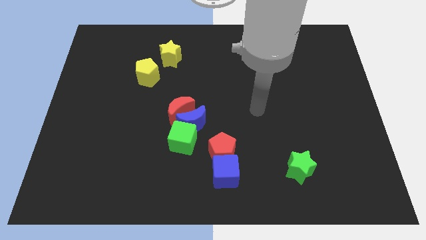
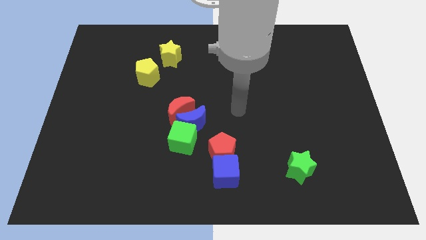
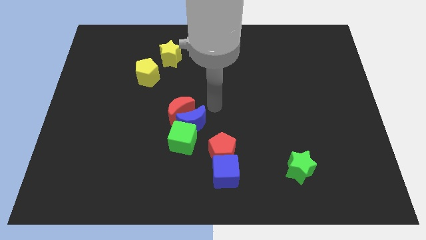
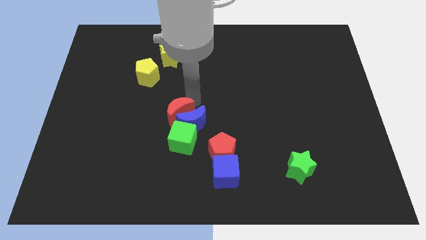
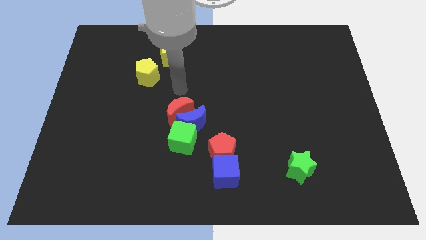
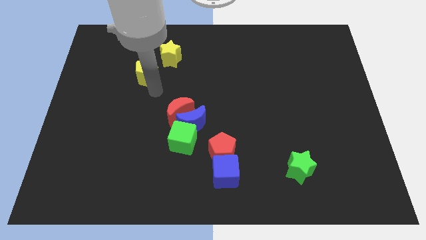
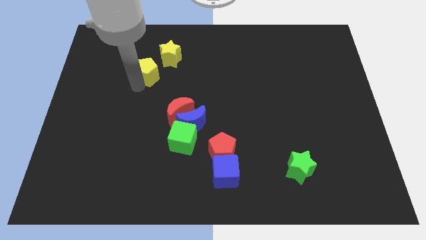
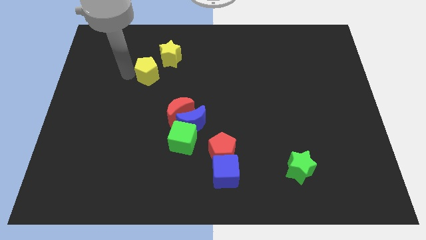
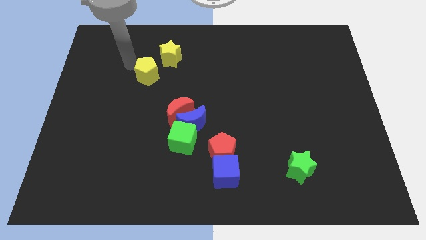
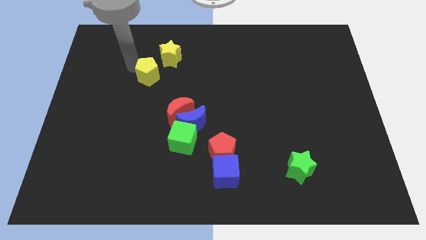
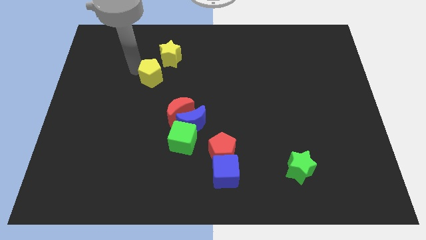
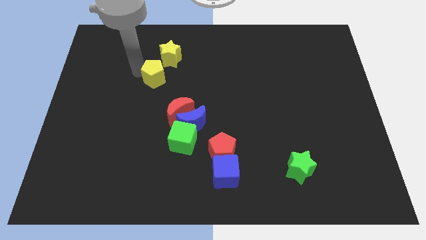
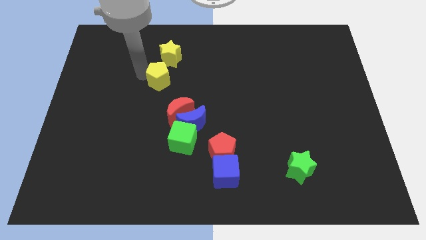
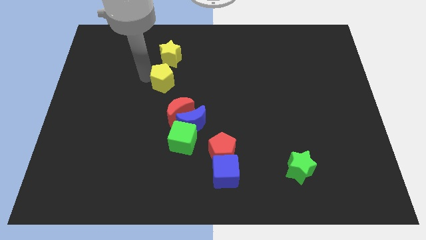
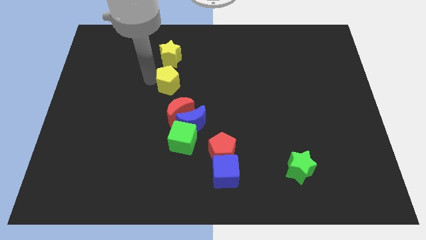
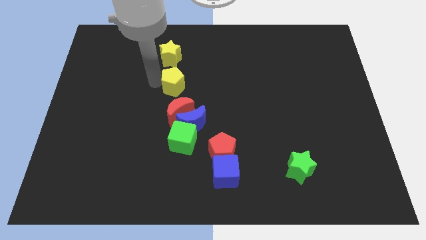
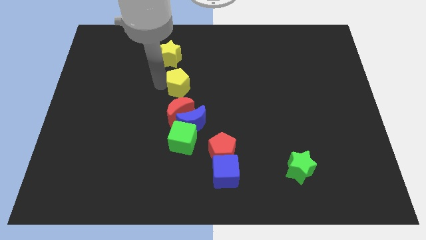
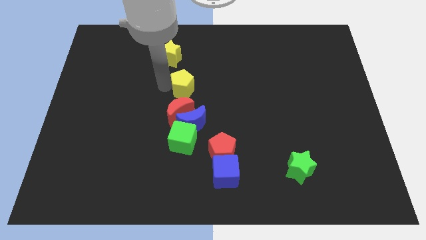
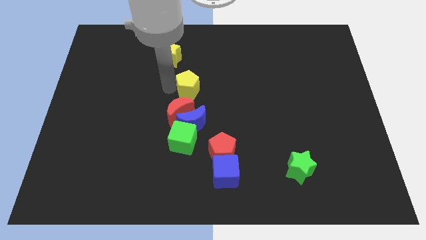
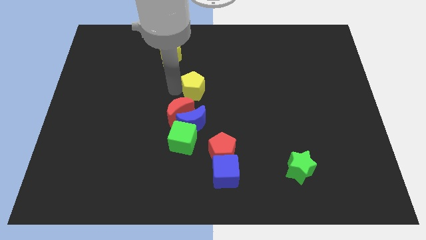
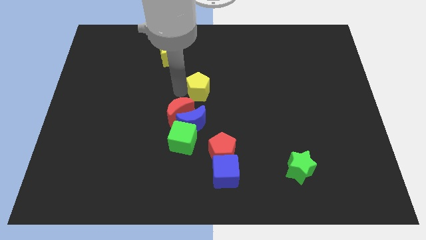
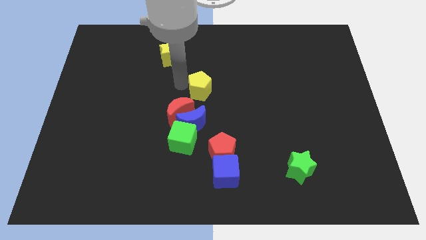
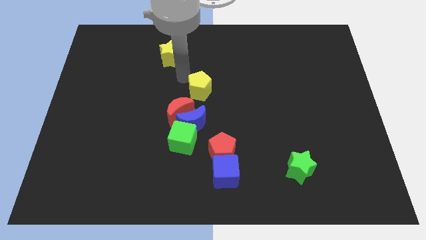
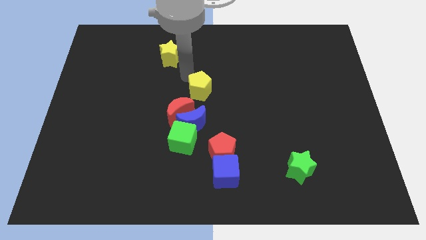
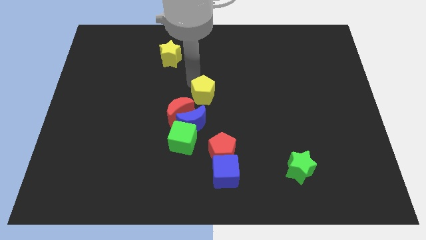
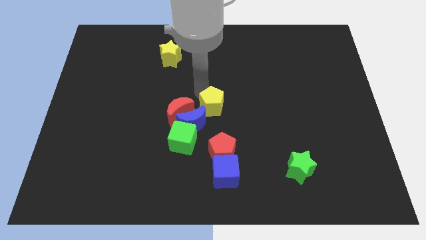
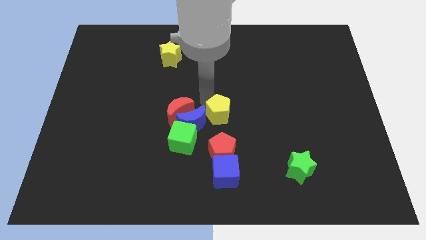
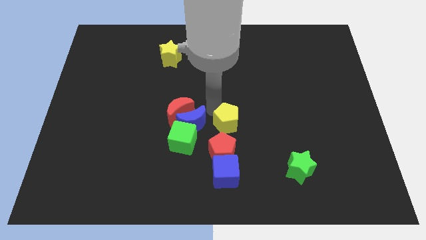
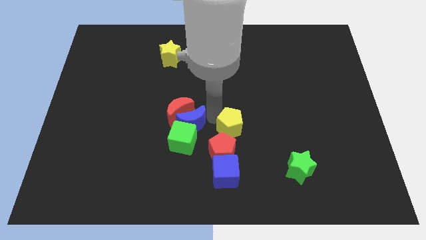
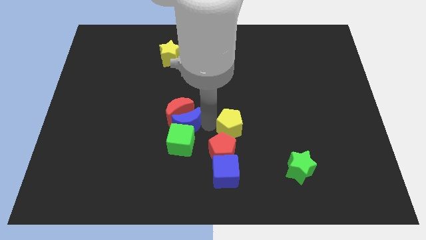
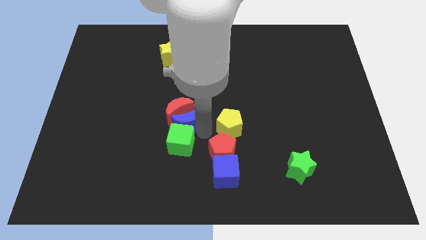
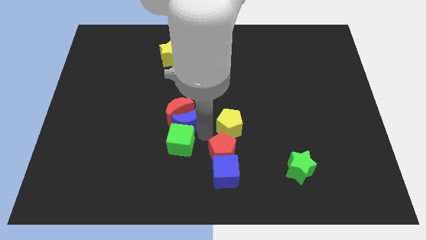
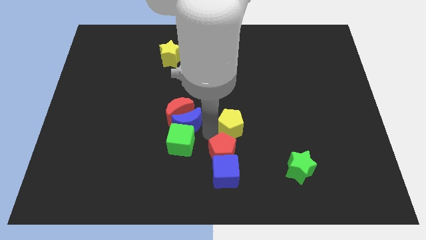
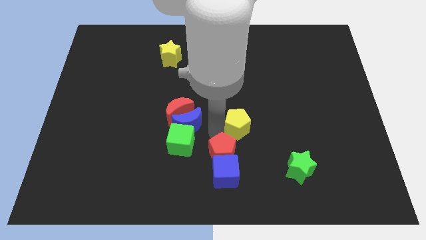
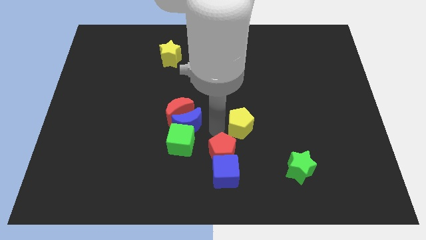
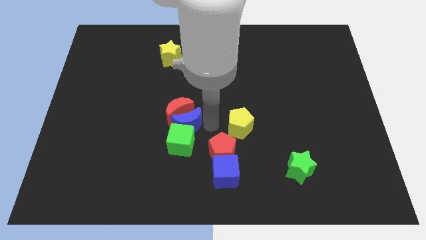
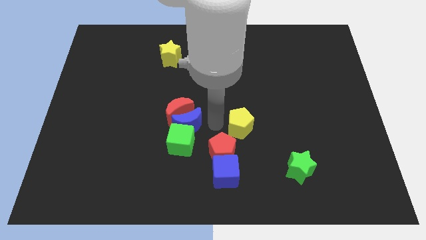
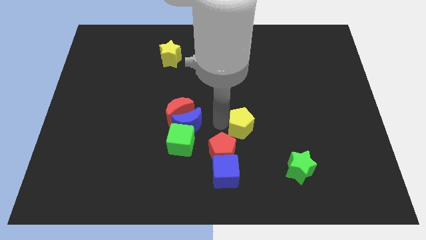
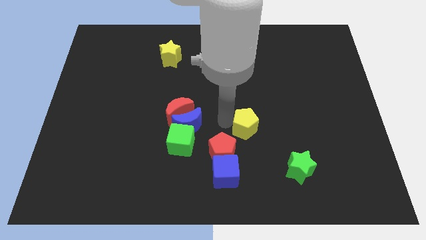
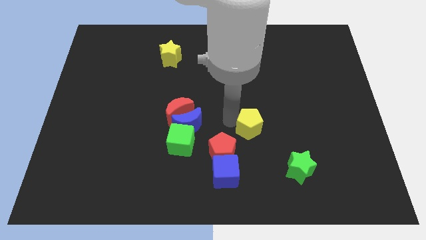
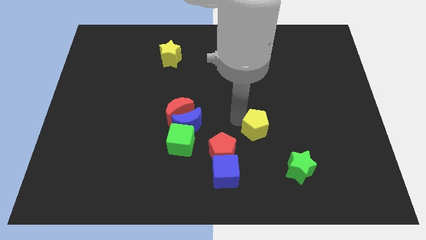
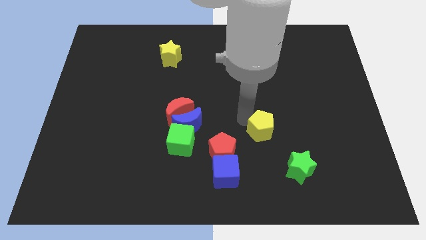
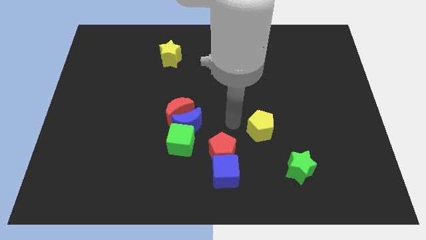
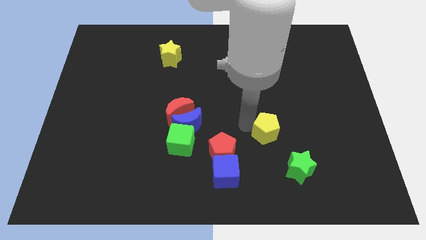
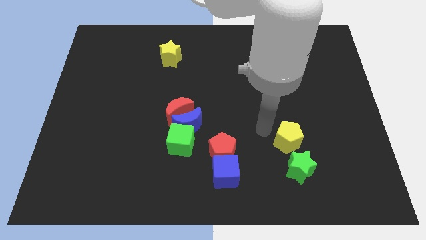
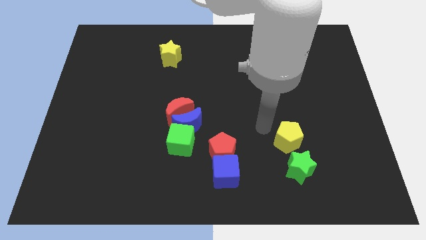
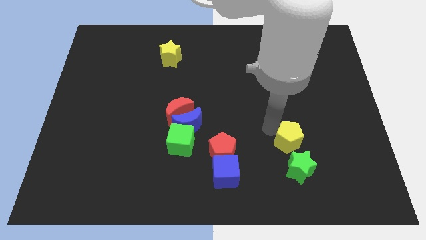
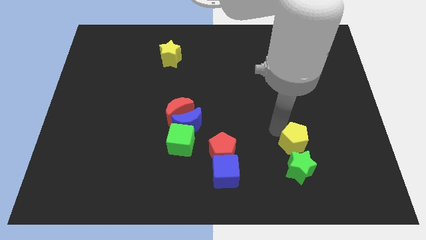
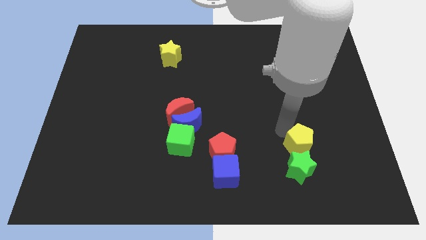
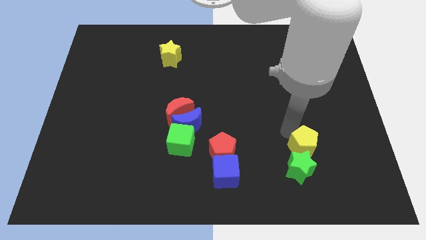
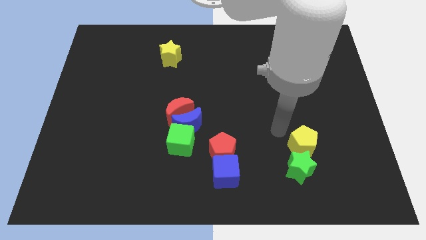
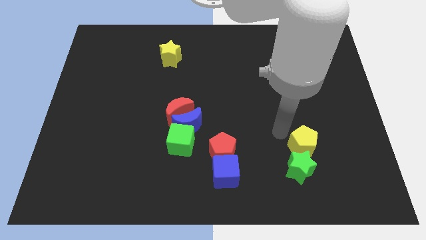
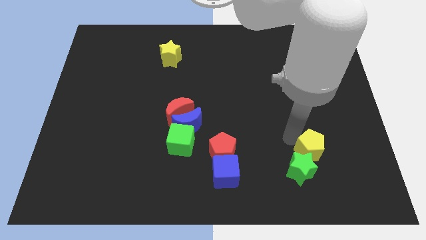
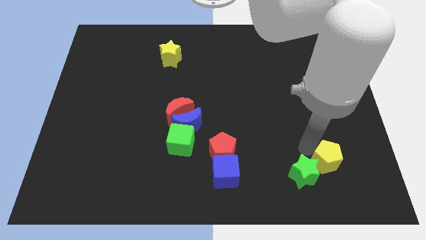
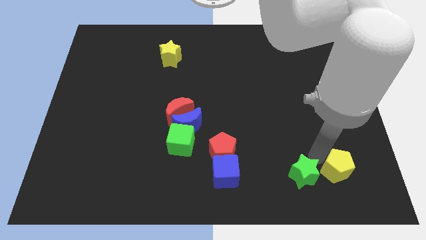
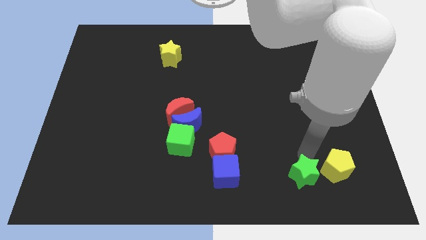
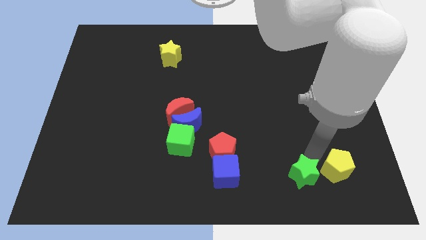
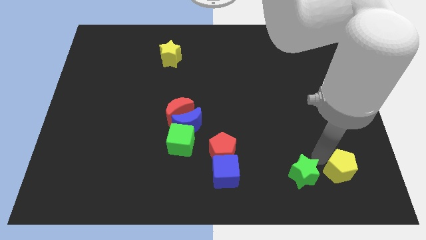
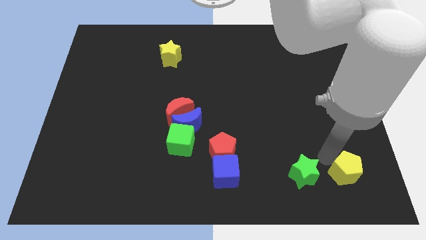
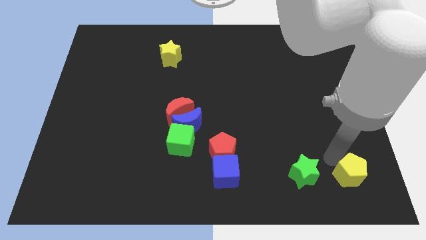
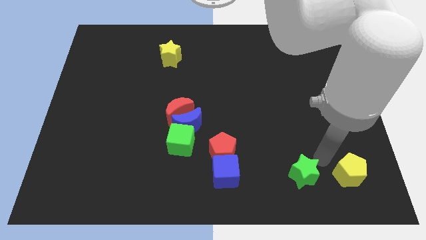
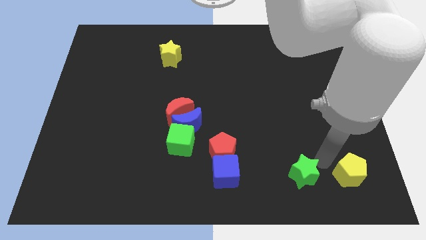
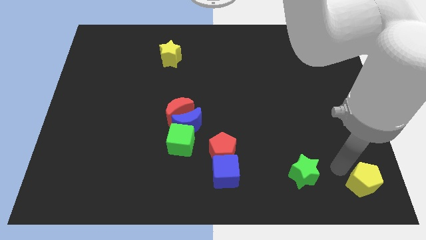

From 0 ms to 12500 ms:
push the yellow pentagon to the bottom right
